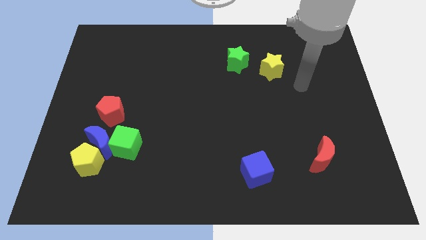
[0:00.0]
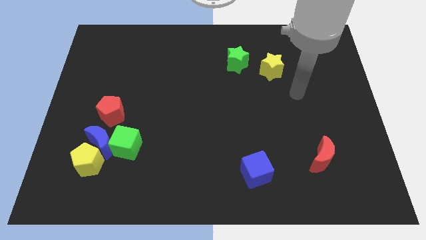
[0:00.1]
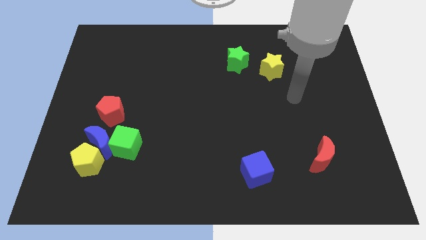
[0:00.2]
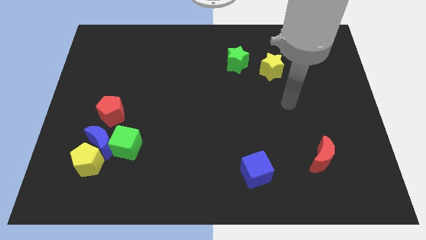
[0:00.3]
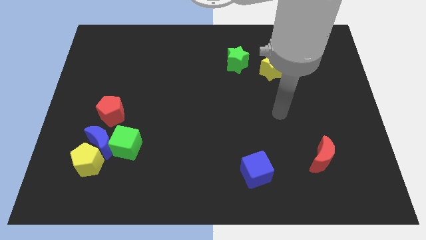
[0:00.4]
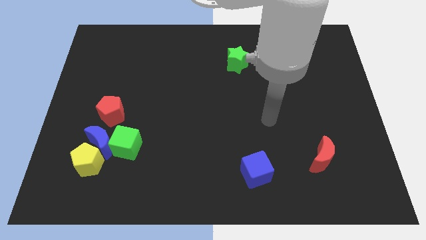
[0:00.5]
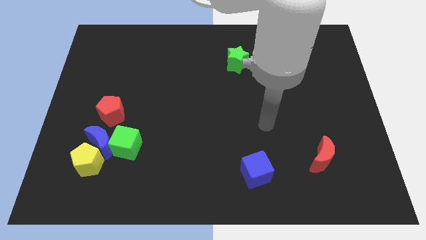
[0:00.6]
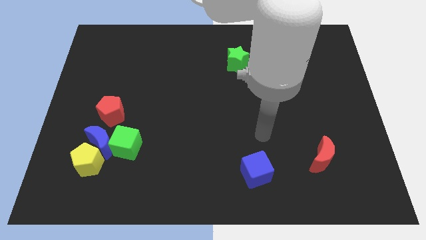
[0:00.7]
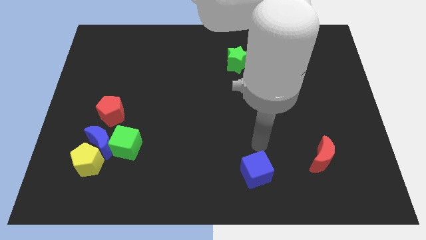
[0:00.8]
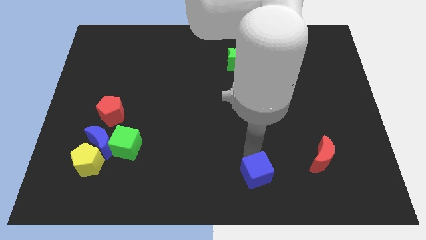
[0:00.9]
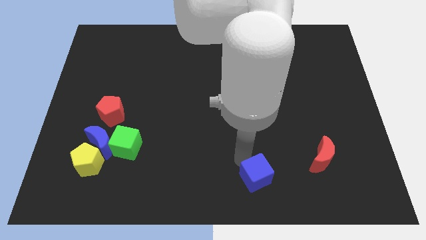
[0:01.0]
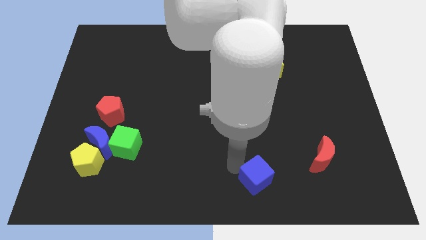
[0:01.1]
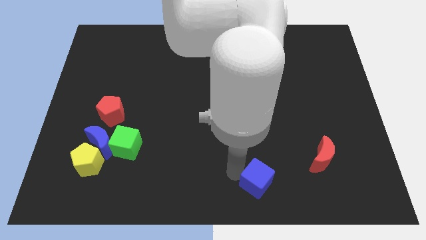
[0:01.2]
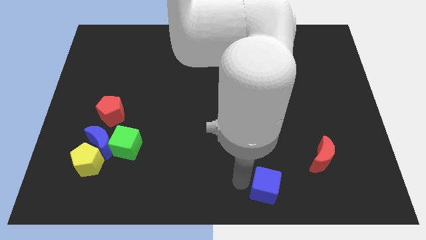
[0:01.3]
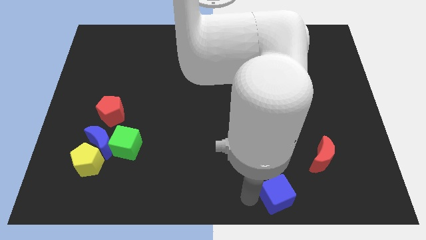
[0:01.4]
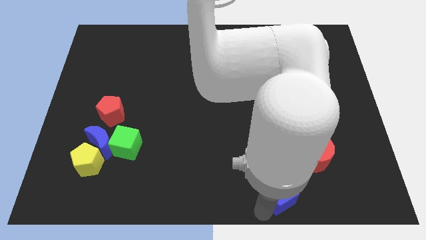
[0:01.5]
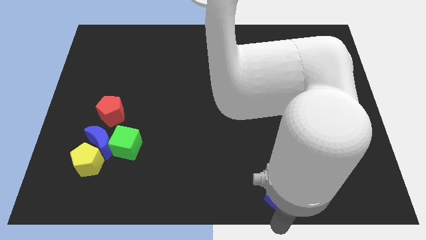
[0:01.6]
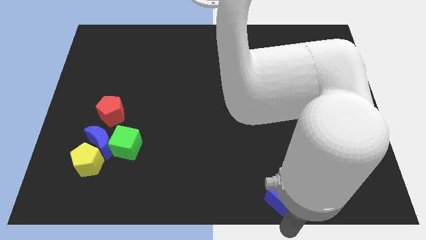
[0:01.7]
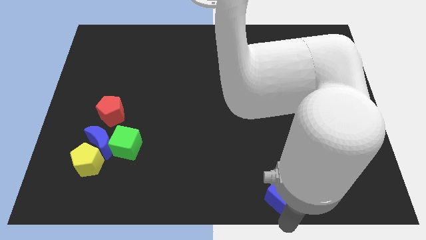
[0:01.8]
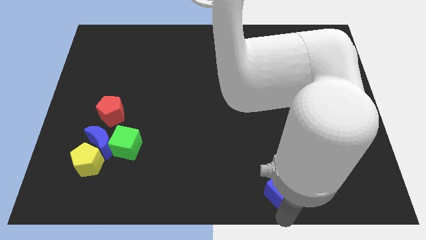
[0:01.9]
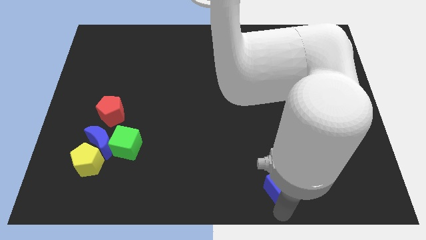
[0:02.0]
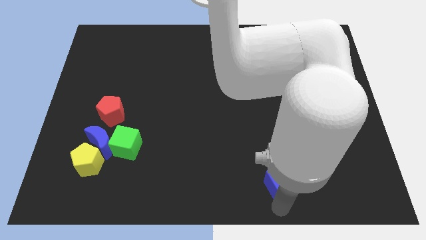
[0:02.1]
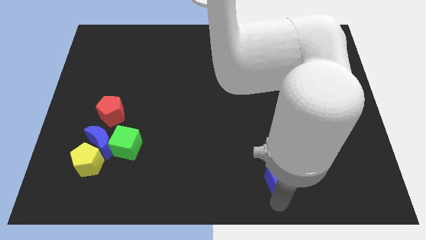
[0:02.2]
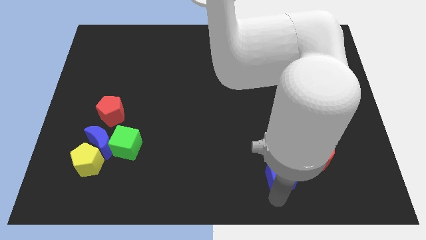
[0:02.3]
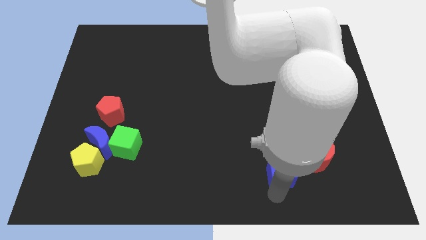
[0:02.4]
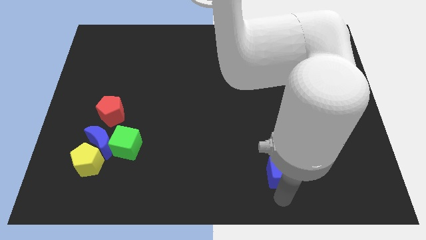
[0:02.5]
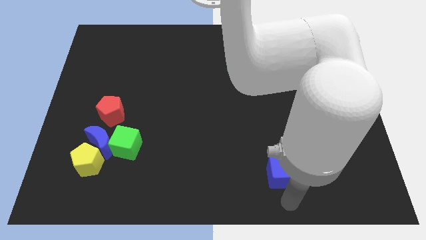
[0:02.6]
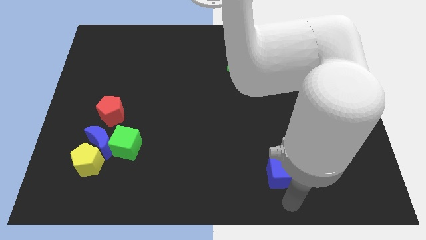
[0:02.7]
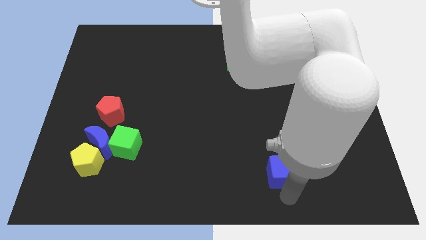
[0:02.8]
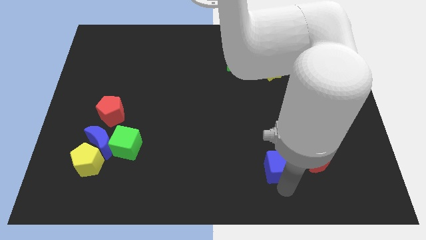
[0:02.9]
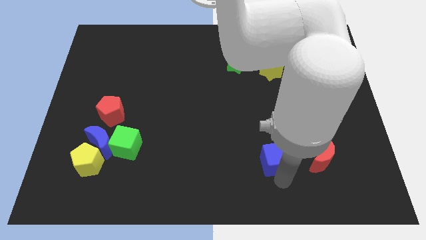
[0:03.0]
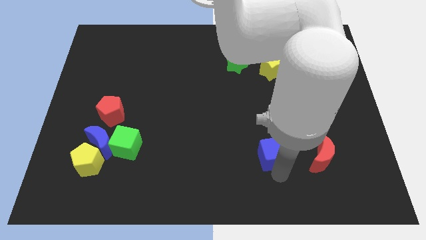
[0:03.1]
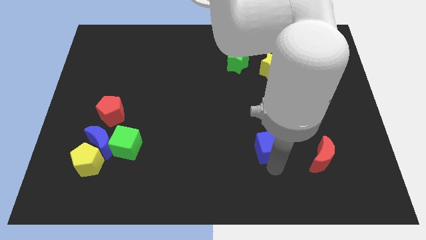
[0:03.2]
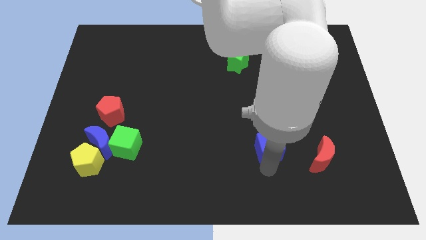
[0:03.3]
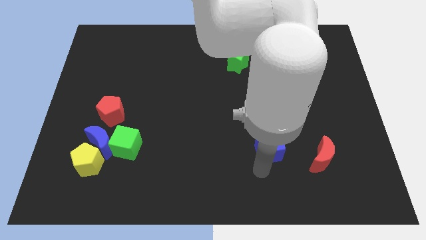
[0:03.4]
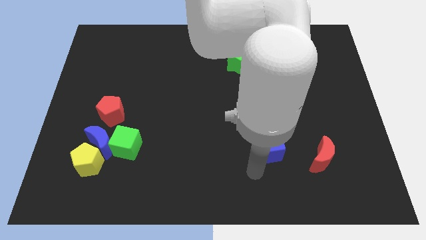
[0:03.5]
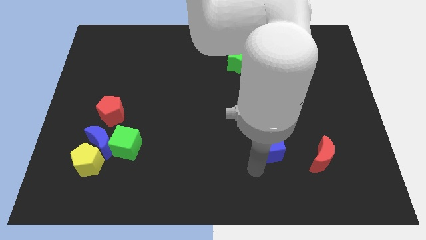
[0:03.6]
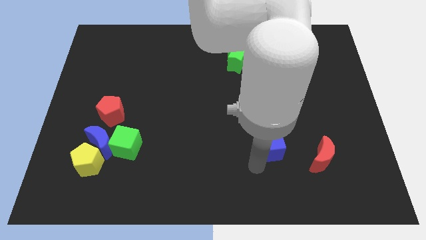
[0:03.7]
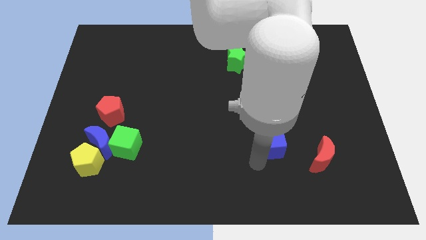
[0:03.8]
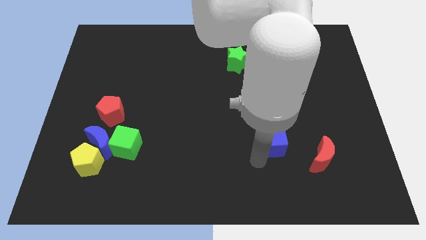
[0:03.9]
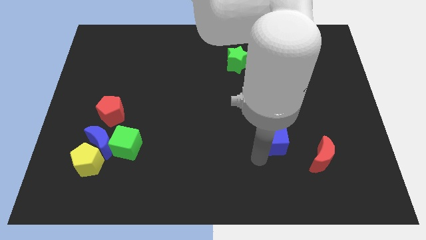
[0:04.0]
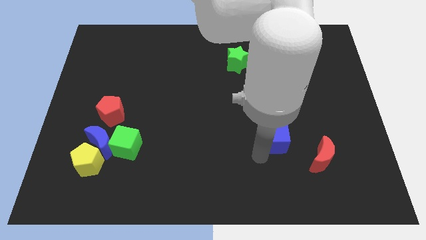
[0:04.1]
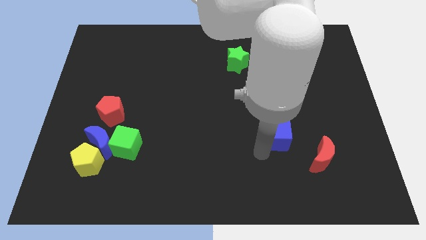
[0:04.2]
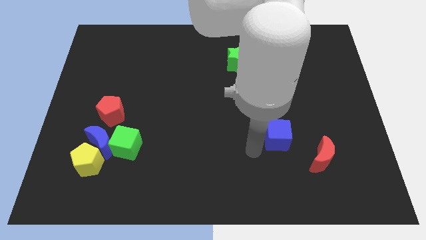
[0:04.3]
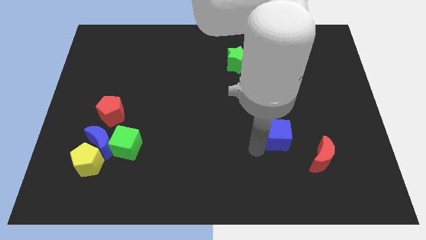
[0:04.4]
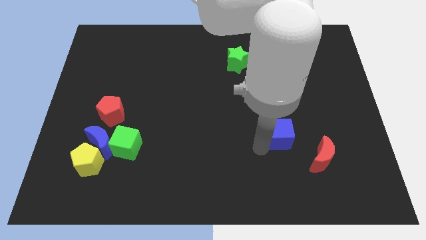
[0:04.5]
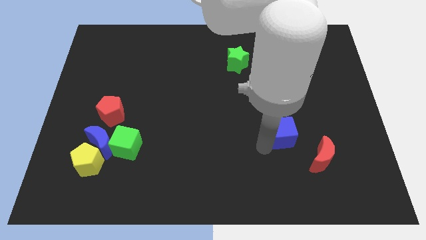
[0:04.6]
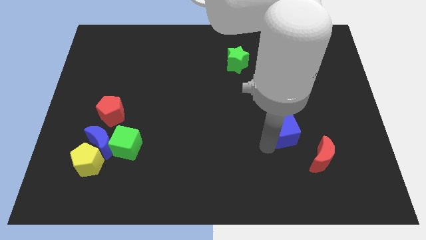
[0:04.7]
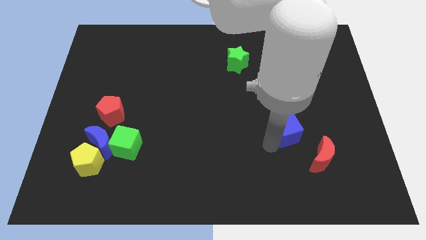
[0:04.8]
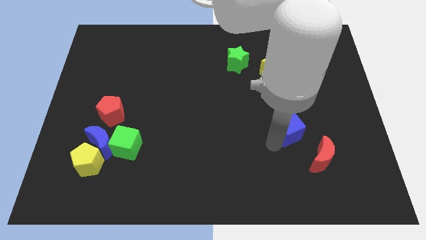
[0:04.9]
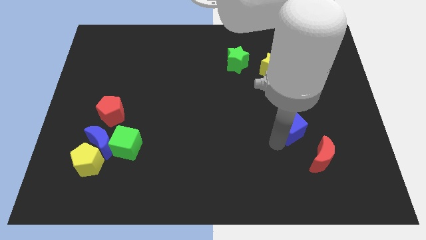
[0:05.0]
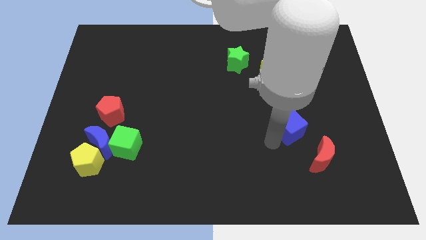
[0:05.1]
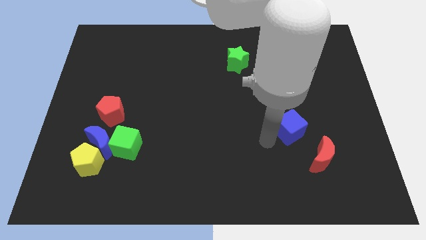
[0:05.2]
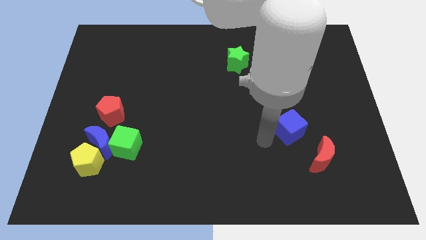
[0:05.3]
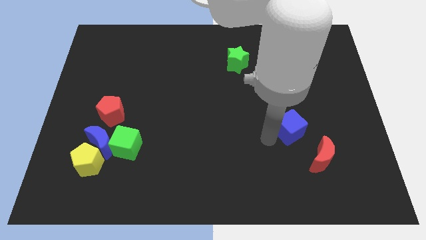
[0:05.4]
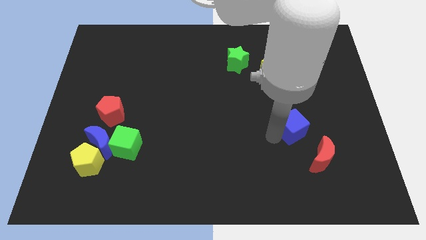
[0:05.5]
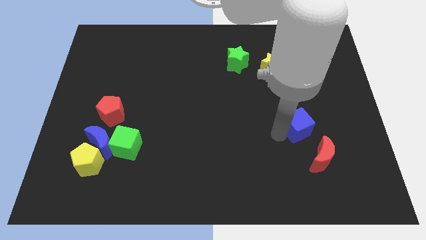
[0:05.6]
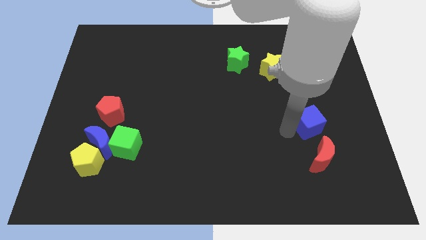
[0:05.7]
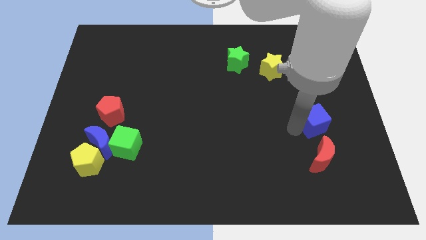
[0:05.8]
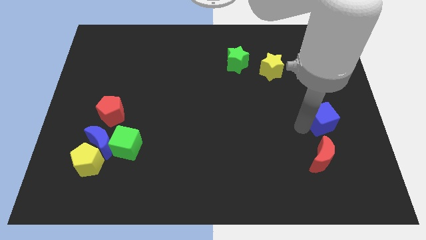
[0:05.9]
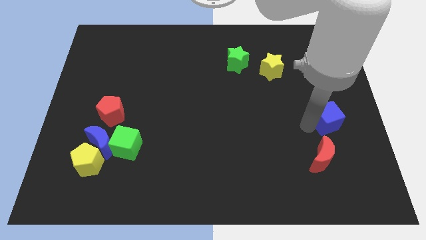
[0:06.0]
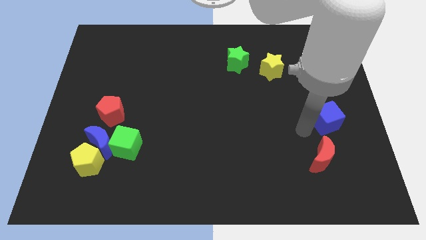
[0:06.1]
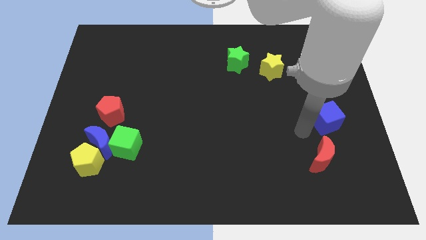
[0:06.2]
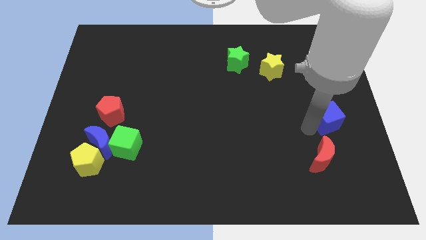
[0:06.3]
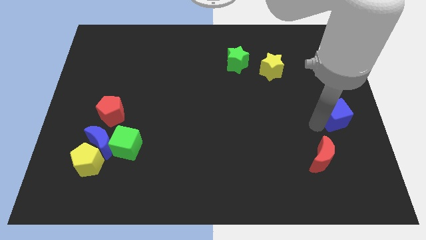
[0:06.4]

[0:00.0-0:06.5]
move the blue cube to the right side
